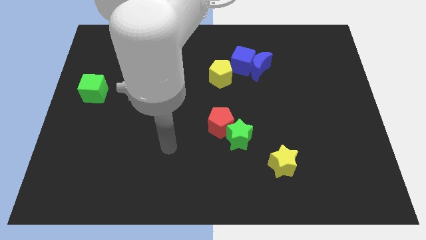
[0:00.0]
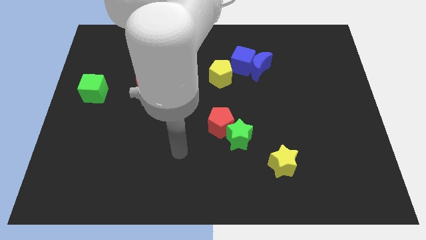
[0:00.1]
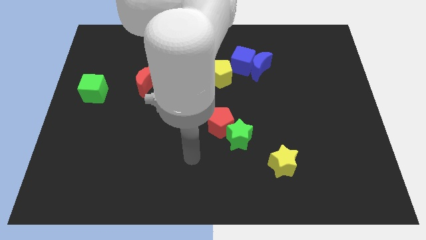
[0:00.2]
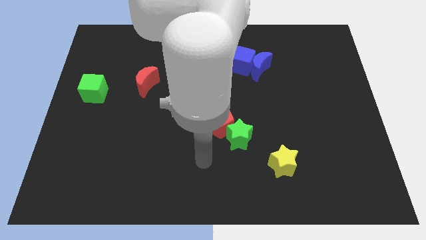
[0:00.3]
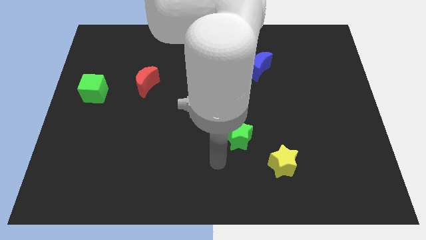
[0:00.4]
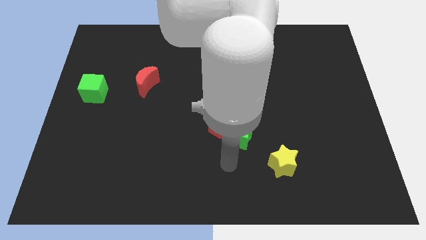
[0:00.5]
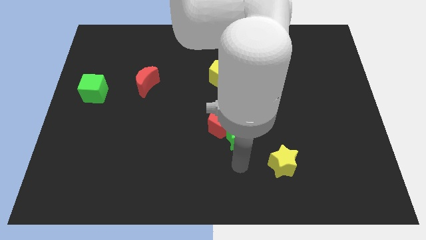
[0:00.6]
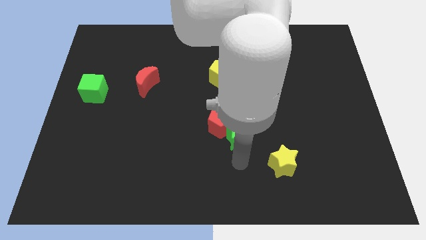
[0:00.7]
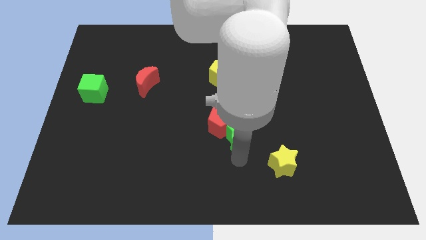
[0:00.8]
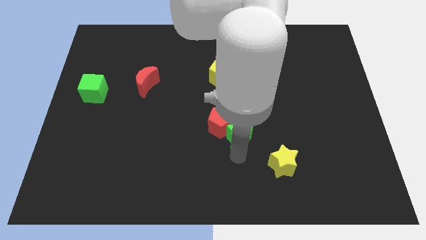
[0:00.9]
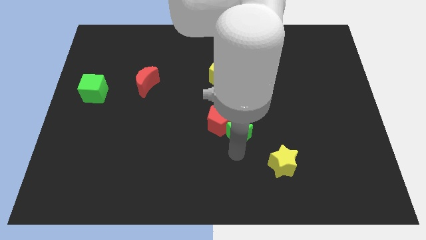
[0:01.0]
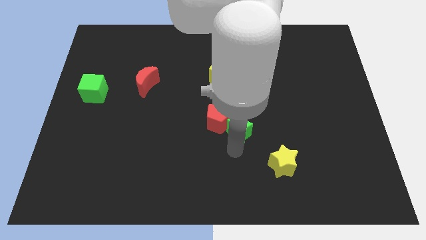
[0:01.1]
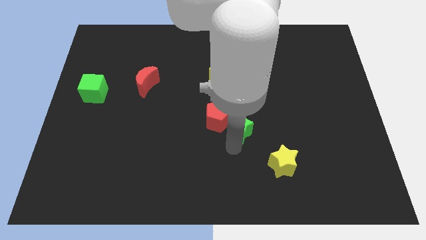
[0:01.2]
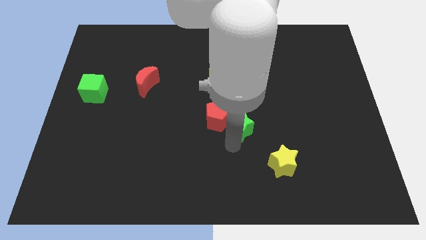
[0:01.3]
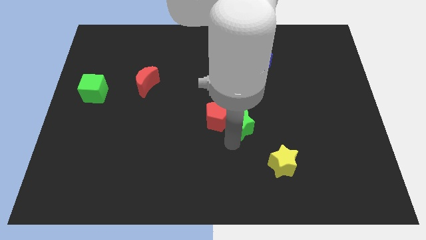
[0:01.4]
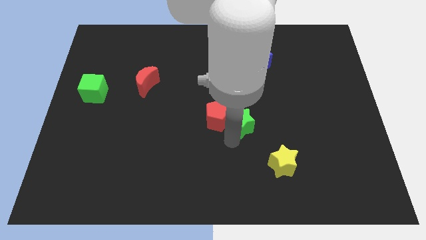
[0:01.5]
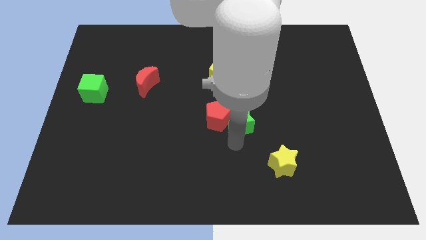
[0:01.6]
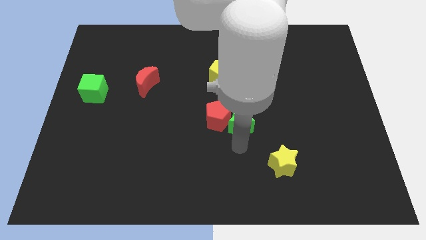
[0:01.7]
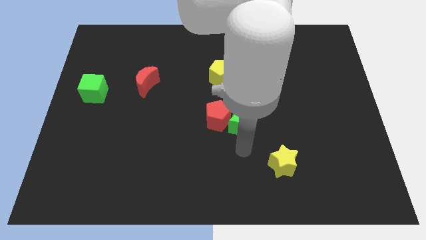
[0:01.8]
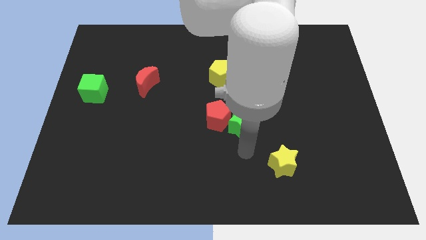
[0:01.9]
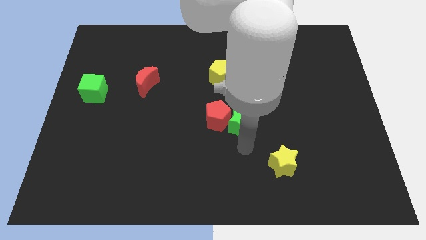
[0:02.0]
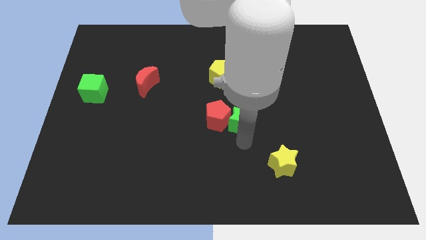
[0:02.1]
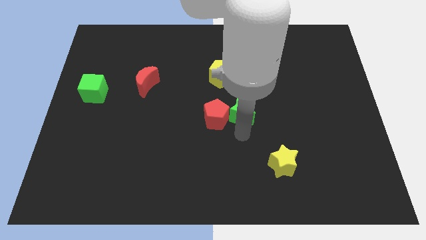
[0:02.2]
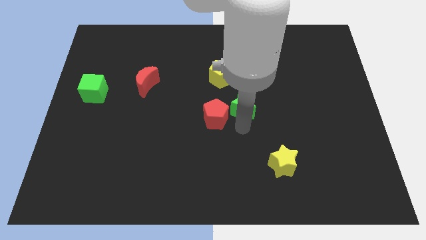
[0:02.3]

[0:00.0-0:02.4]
push the green star upwards a little bit

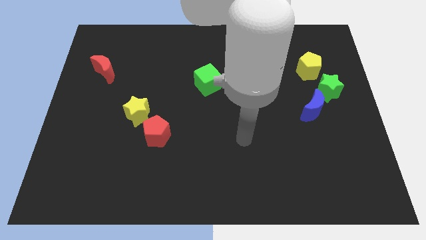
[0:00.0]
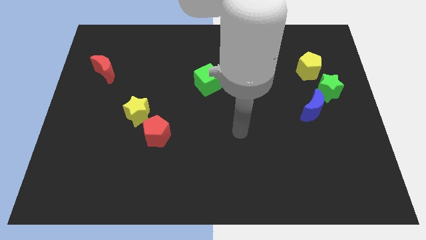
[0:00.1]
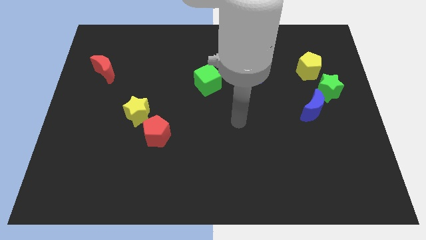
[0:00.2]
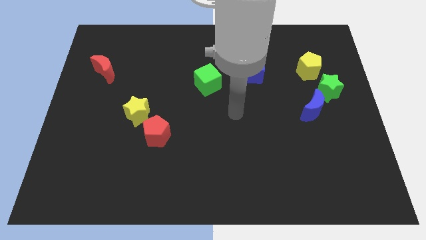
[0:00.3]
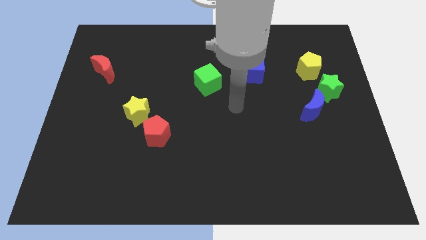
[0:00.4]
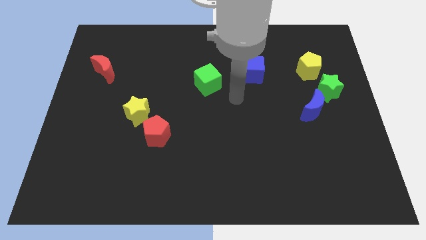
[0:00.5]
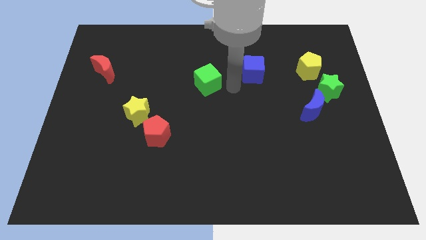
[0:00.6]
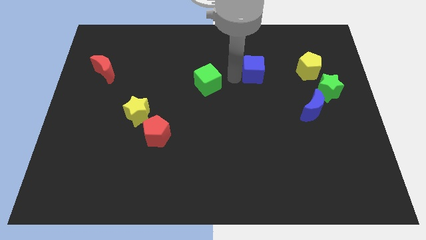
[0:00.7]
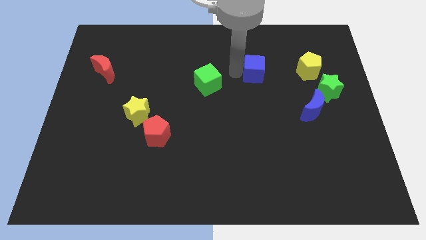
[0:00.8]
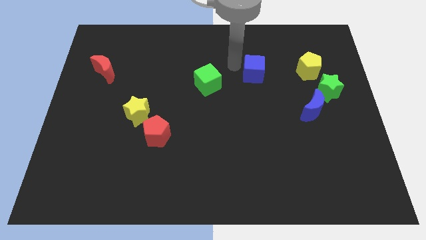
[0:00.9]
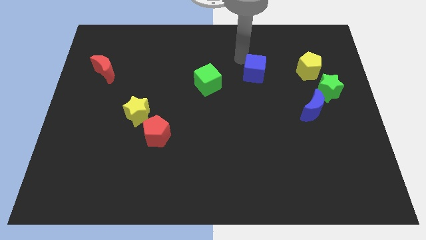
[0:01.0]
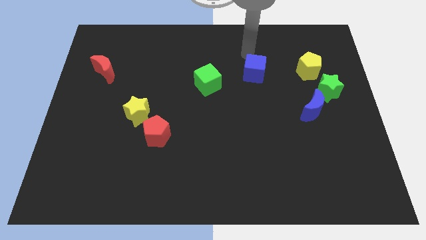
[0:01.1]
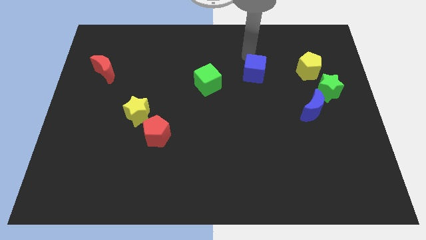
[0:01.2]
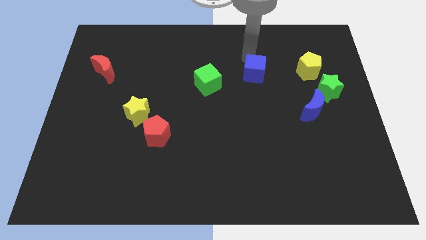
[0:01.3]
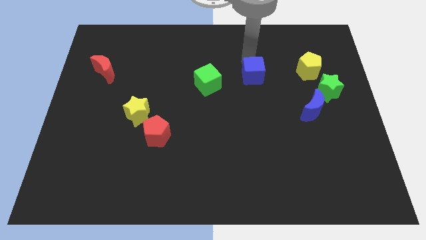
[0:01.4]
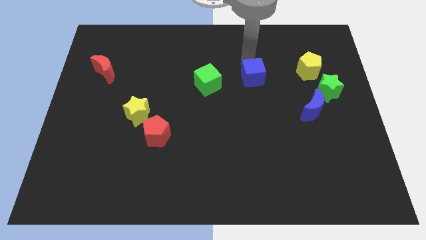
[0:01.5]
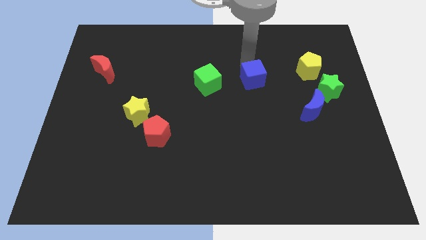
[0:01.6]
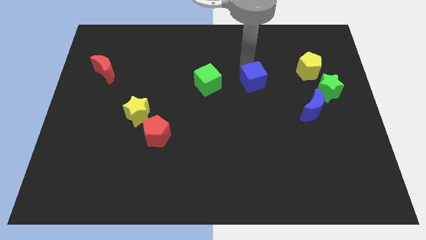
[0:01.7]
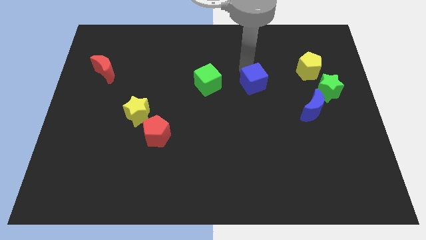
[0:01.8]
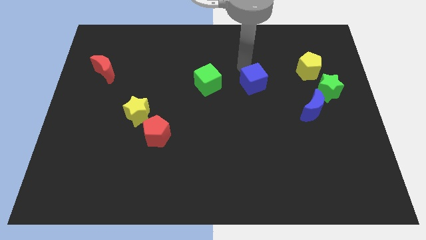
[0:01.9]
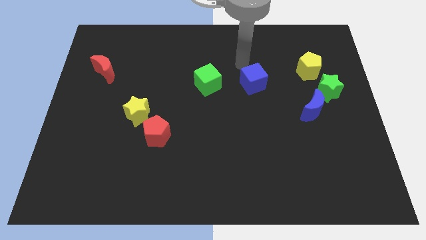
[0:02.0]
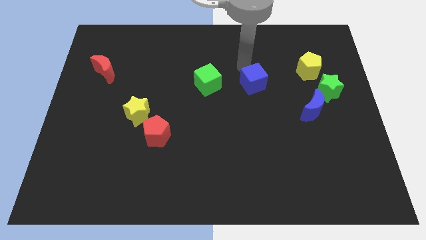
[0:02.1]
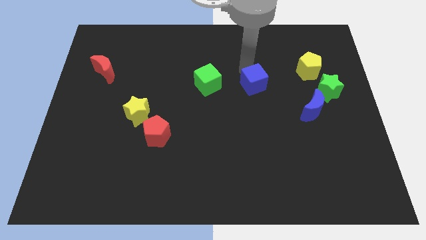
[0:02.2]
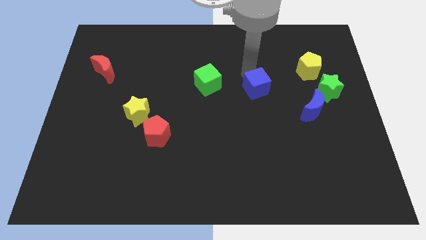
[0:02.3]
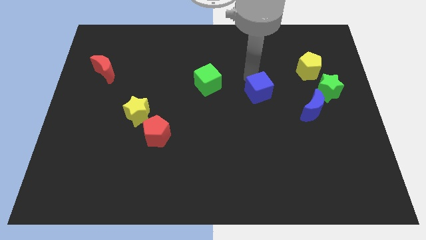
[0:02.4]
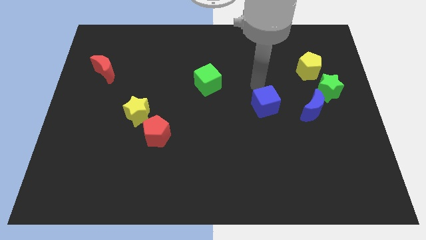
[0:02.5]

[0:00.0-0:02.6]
move the blue cube a little down

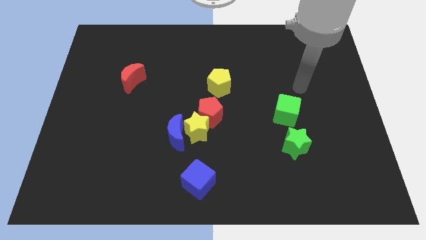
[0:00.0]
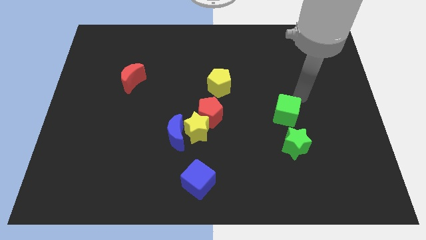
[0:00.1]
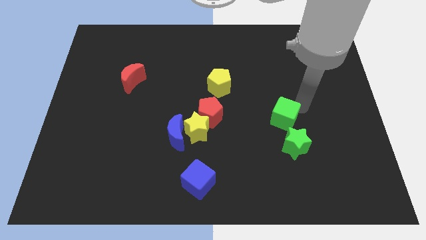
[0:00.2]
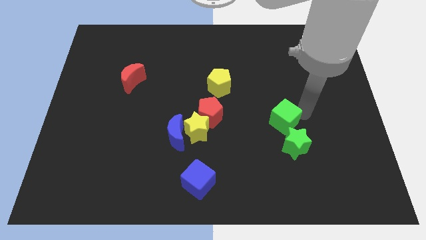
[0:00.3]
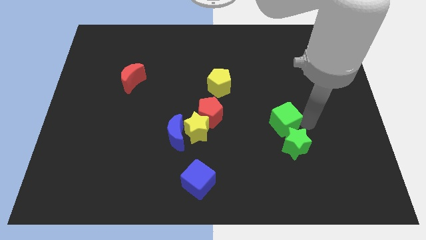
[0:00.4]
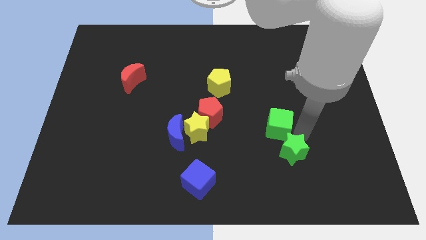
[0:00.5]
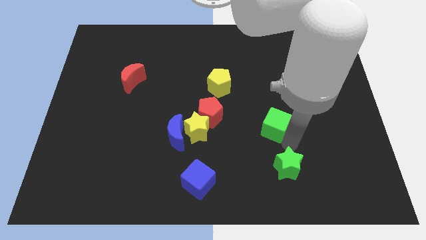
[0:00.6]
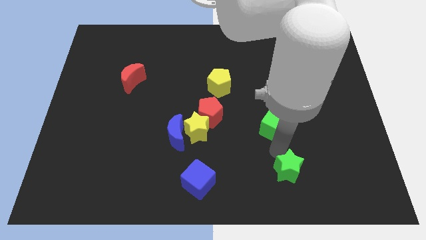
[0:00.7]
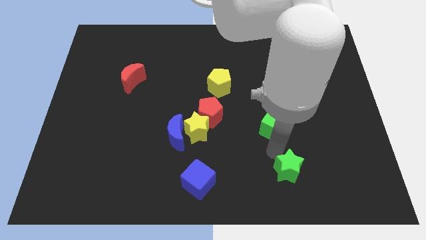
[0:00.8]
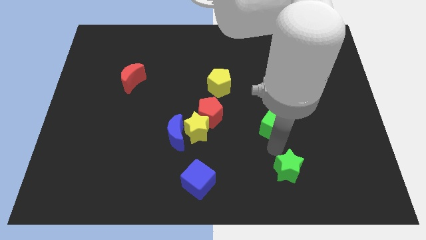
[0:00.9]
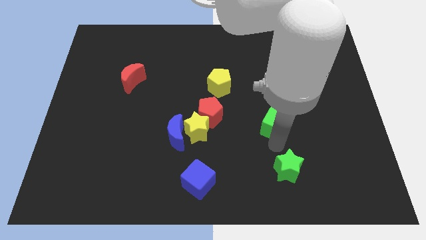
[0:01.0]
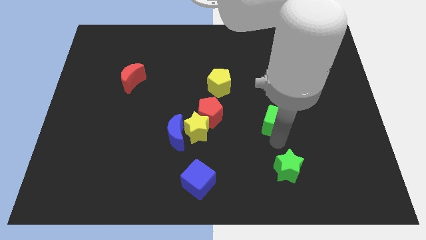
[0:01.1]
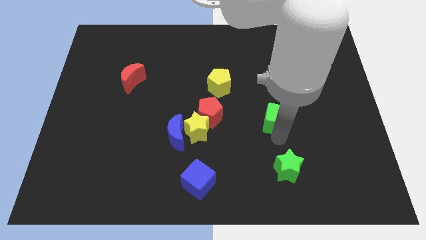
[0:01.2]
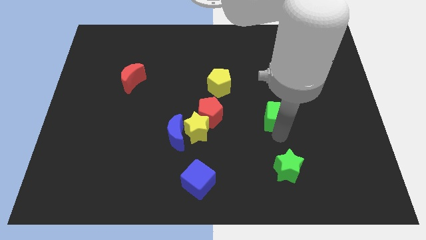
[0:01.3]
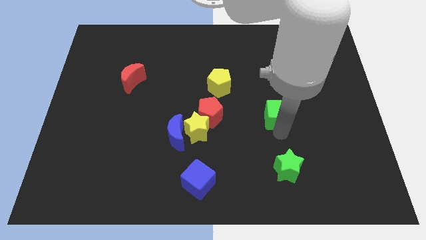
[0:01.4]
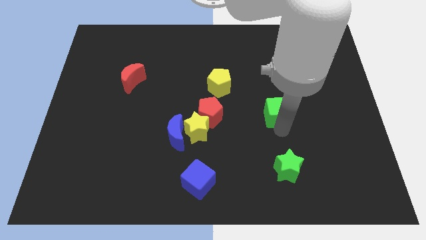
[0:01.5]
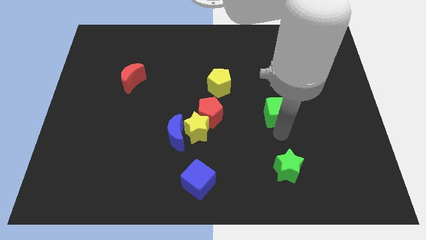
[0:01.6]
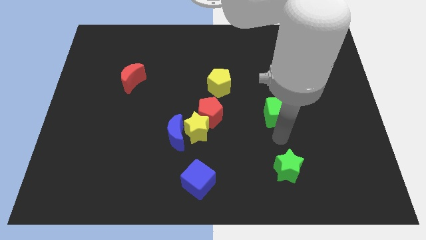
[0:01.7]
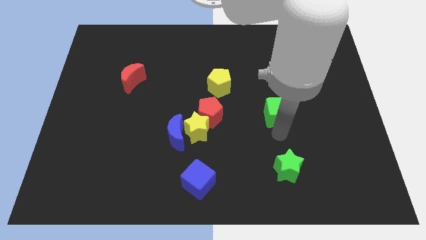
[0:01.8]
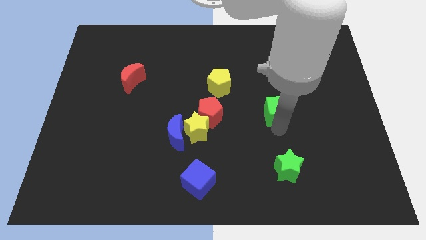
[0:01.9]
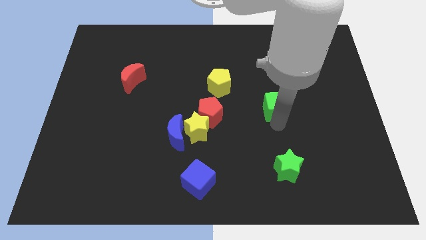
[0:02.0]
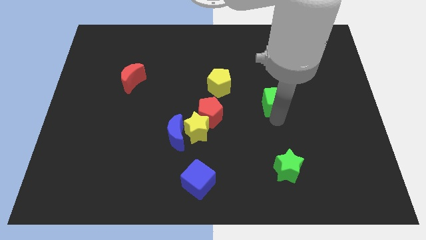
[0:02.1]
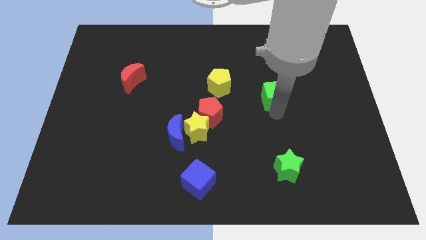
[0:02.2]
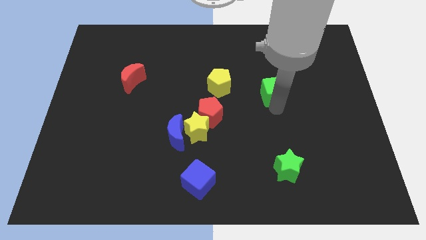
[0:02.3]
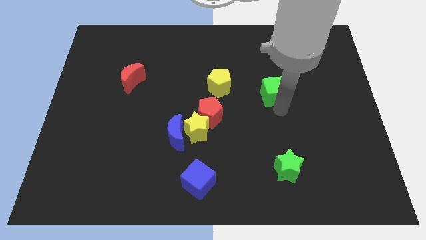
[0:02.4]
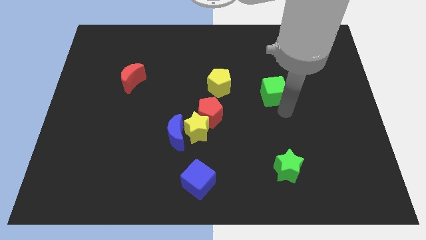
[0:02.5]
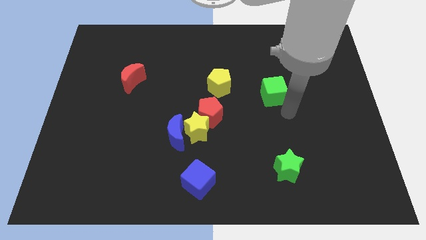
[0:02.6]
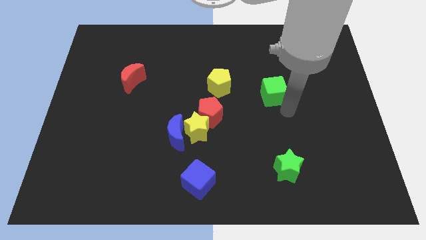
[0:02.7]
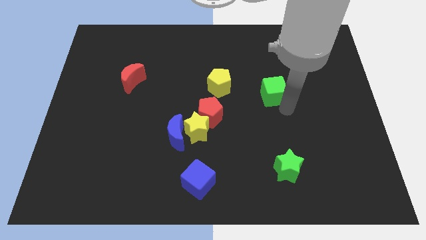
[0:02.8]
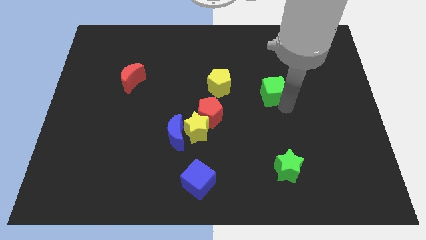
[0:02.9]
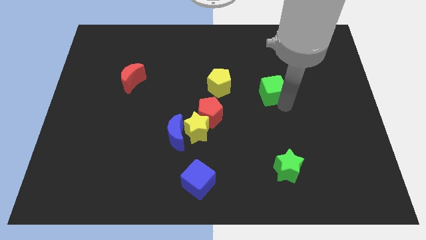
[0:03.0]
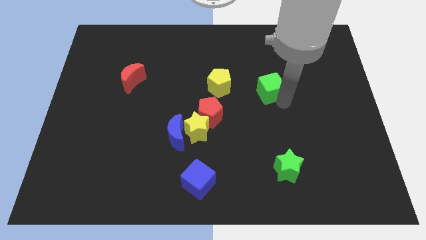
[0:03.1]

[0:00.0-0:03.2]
slightly move the green cube upwards and then left

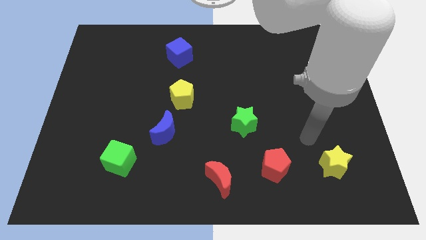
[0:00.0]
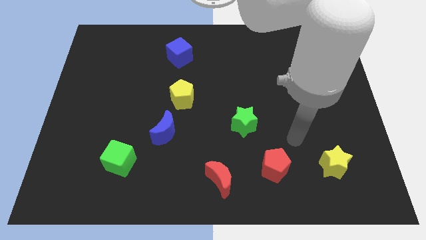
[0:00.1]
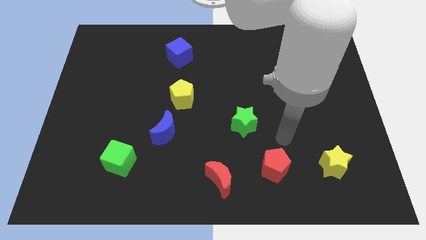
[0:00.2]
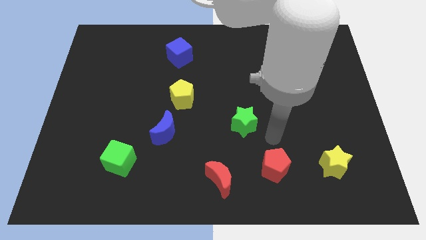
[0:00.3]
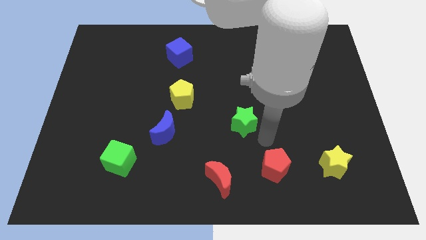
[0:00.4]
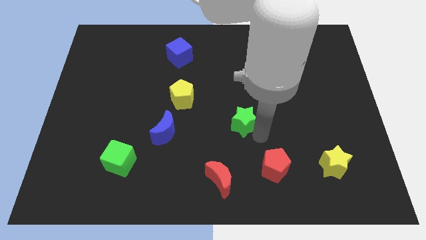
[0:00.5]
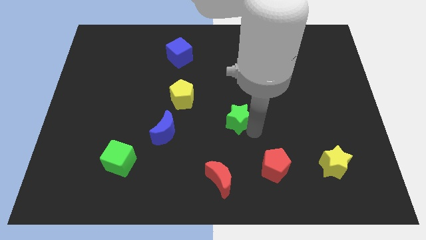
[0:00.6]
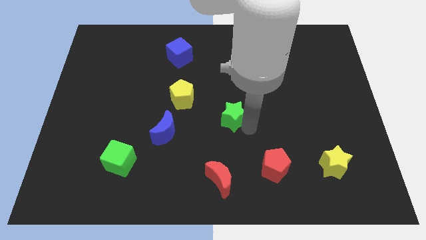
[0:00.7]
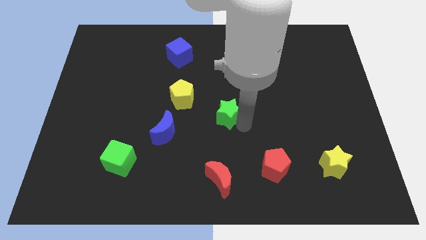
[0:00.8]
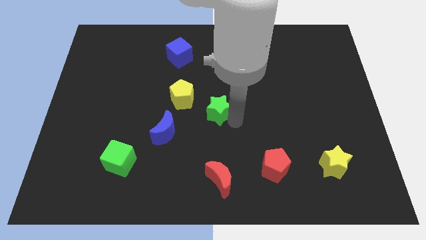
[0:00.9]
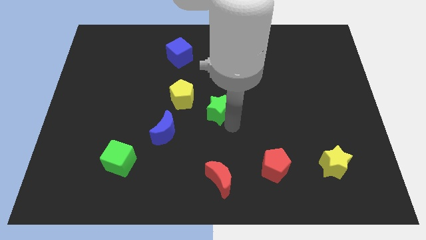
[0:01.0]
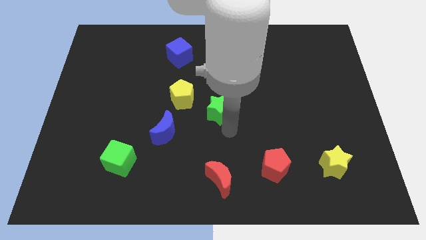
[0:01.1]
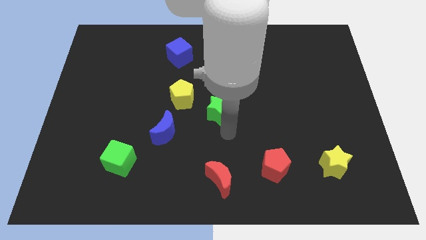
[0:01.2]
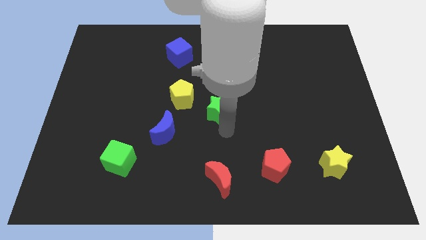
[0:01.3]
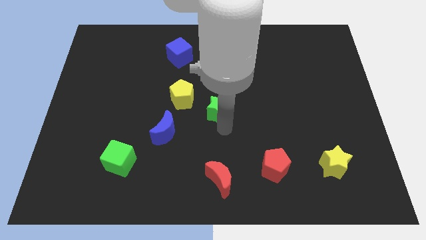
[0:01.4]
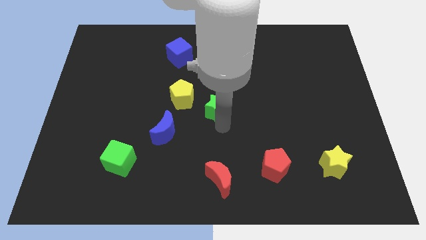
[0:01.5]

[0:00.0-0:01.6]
slightly slide the green star diagonally up and to the left
